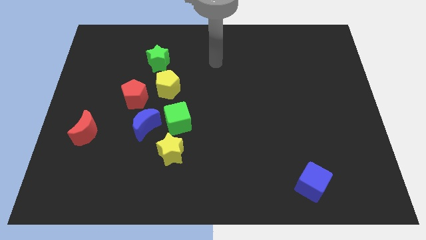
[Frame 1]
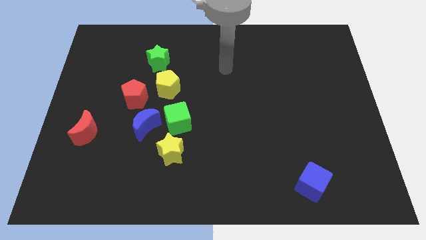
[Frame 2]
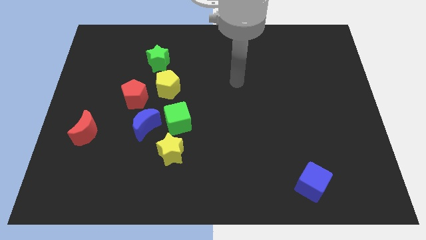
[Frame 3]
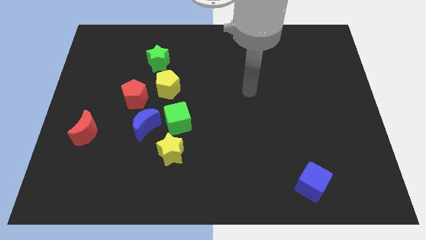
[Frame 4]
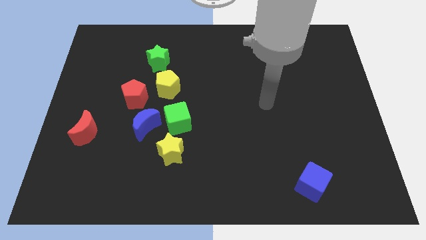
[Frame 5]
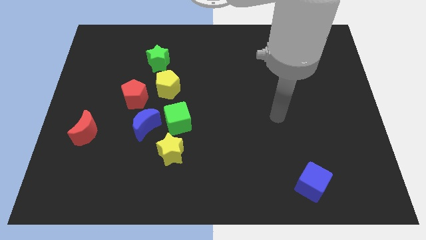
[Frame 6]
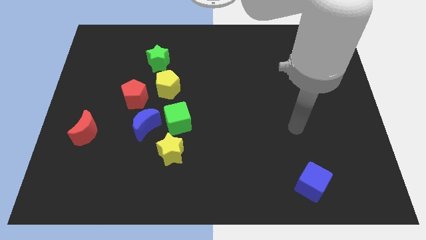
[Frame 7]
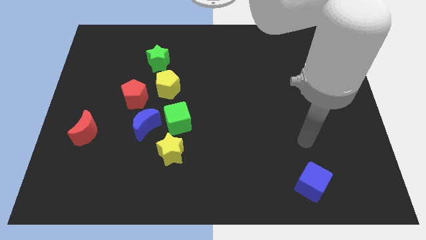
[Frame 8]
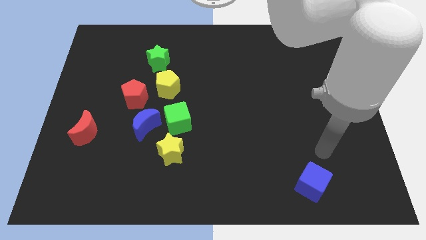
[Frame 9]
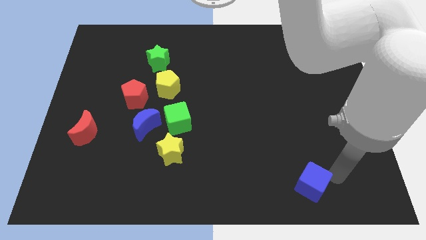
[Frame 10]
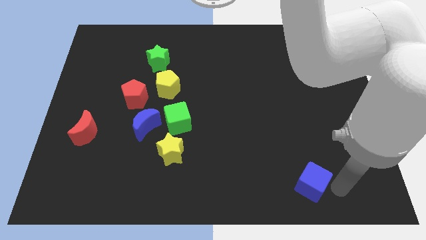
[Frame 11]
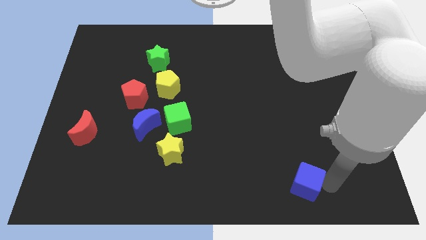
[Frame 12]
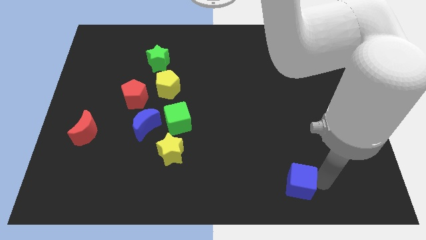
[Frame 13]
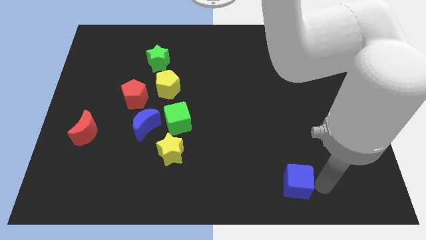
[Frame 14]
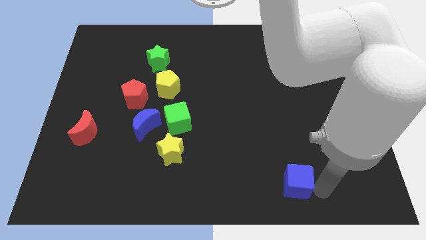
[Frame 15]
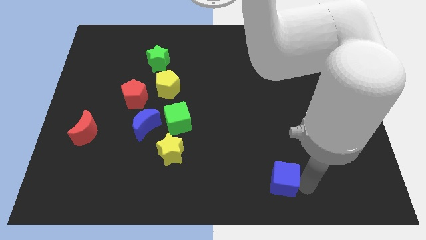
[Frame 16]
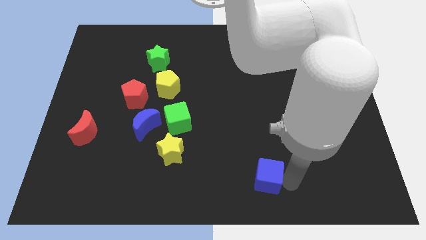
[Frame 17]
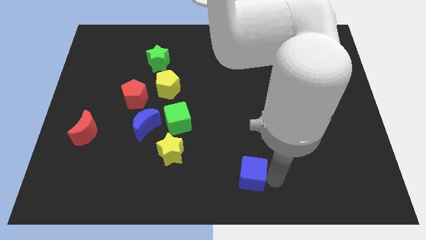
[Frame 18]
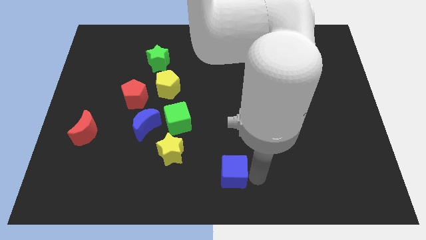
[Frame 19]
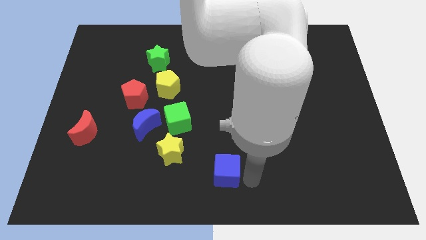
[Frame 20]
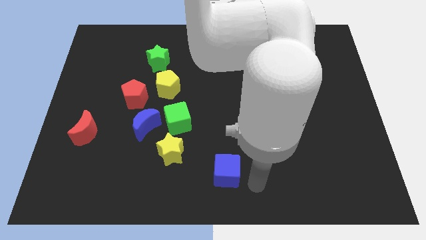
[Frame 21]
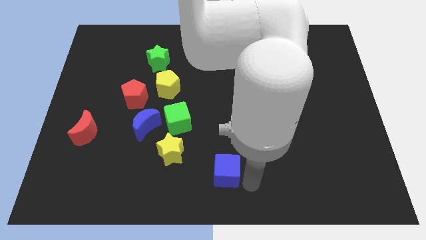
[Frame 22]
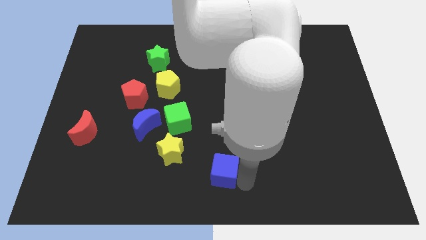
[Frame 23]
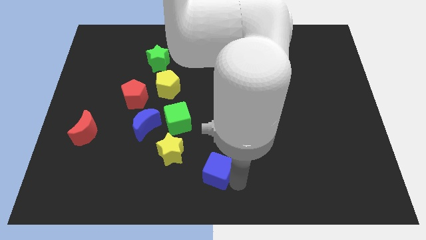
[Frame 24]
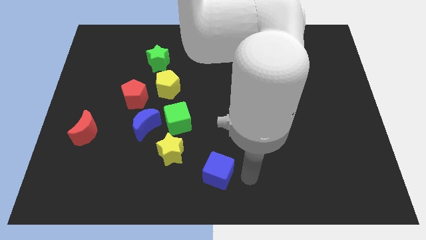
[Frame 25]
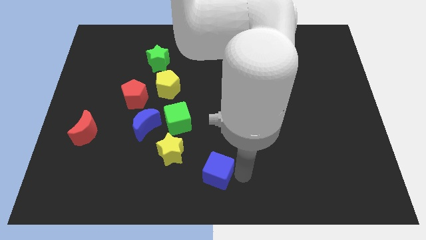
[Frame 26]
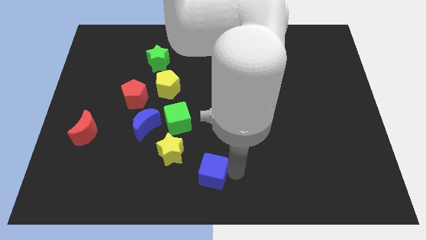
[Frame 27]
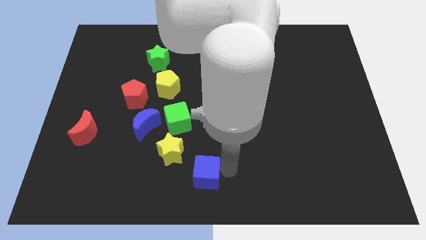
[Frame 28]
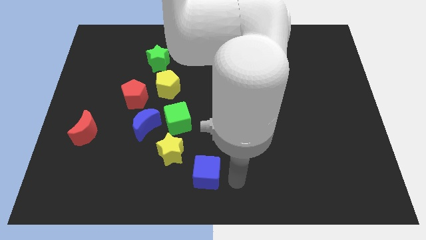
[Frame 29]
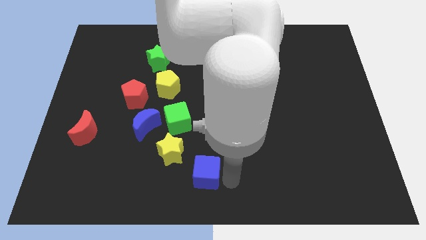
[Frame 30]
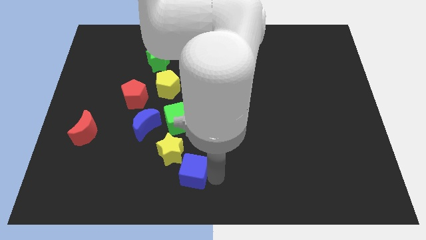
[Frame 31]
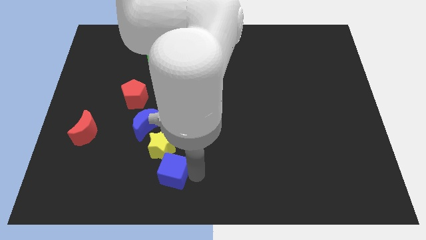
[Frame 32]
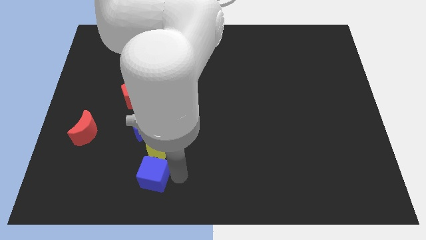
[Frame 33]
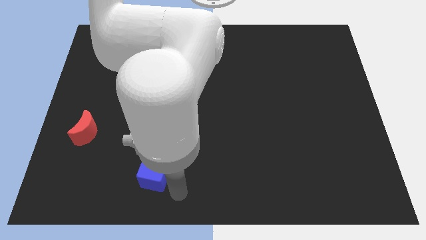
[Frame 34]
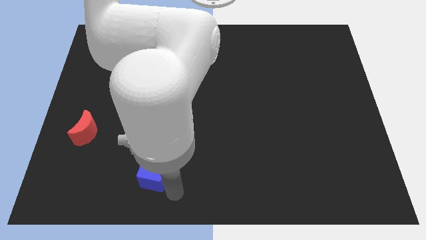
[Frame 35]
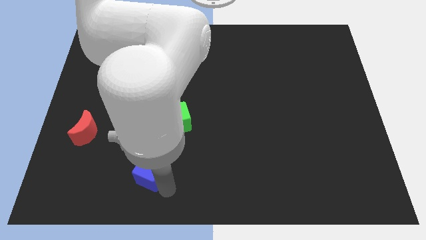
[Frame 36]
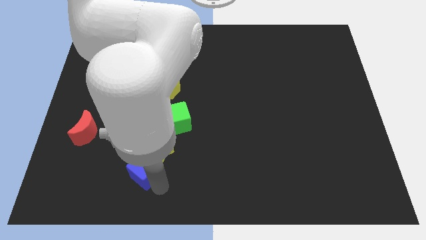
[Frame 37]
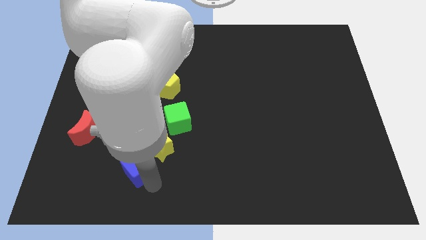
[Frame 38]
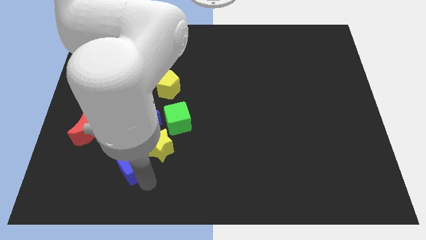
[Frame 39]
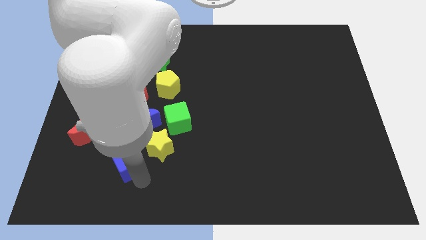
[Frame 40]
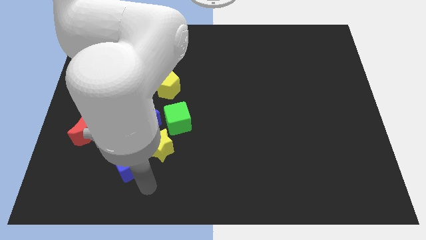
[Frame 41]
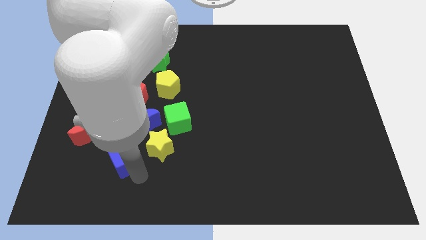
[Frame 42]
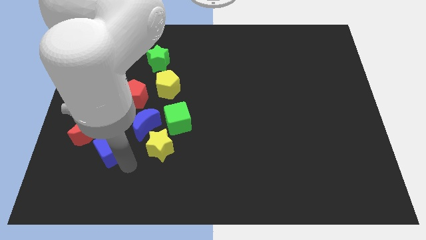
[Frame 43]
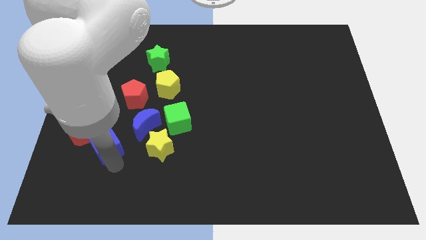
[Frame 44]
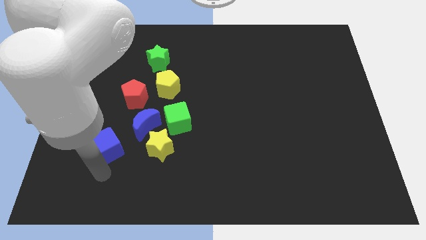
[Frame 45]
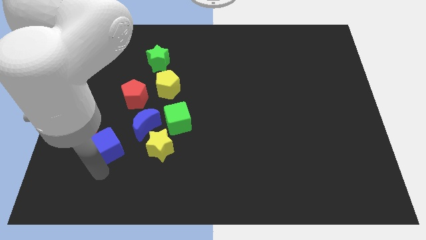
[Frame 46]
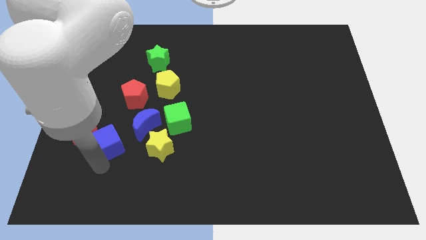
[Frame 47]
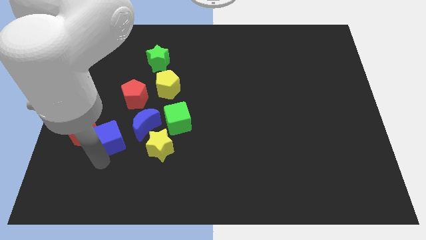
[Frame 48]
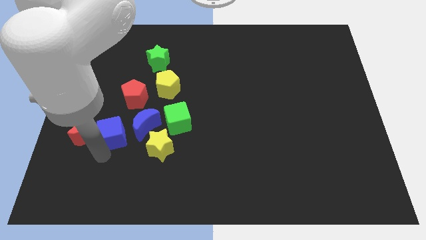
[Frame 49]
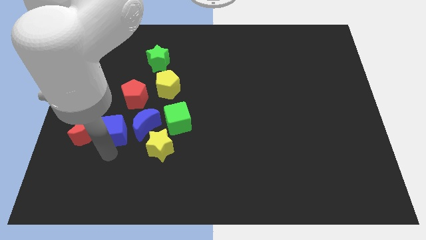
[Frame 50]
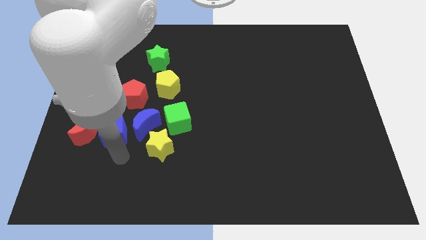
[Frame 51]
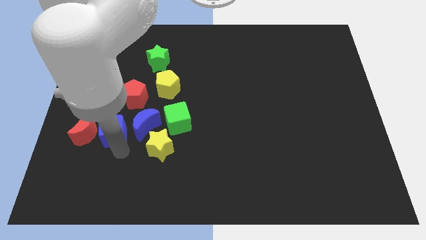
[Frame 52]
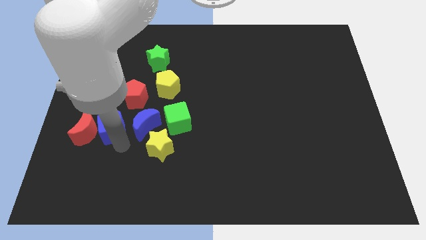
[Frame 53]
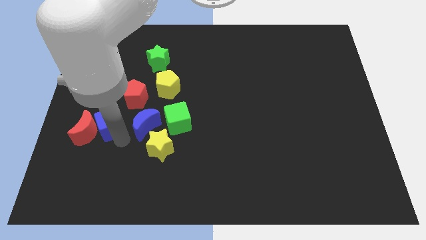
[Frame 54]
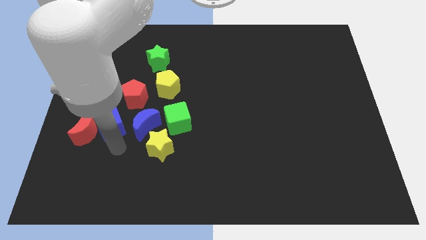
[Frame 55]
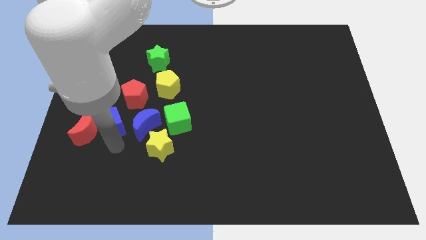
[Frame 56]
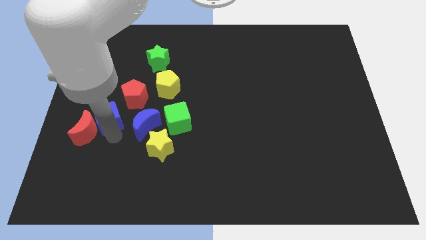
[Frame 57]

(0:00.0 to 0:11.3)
move the blue cube to the top of the red moon
